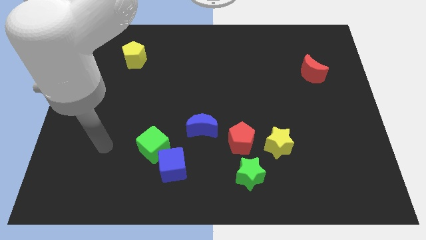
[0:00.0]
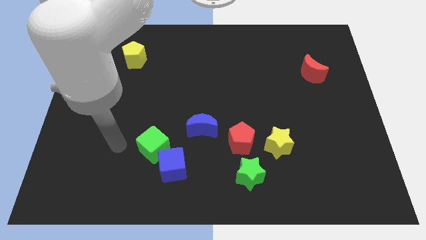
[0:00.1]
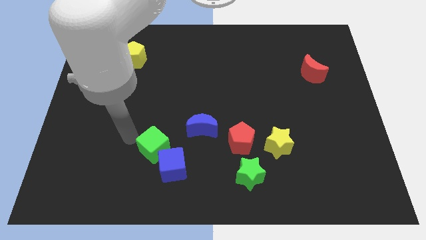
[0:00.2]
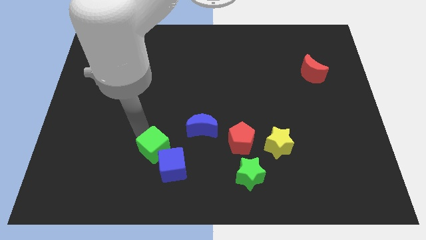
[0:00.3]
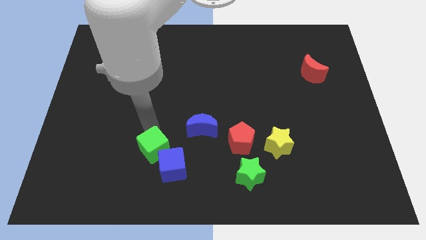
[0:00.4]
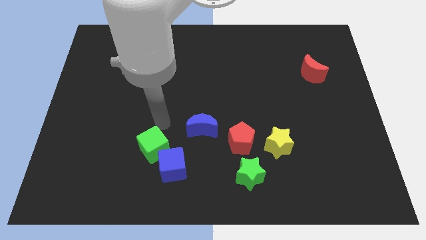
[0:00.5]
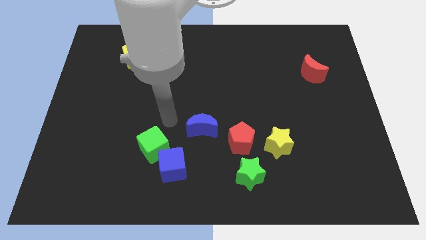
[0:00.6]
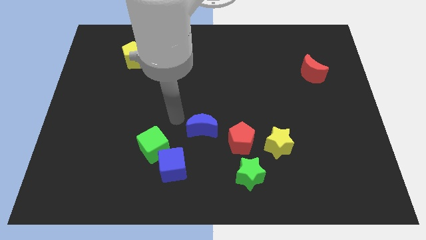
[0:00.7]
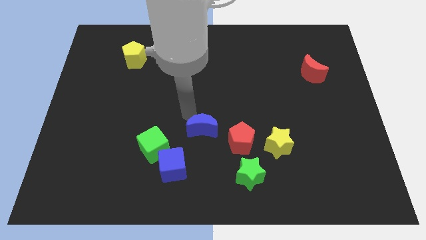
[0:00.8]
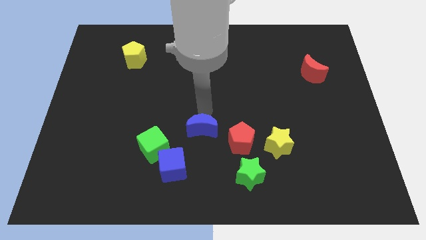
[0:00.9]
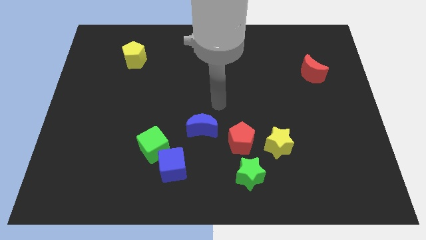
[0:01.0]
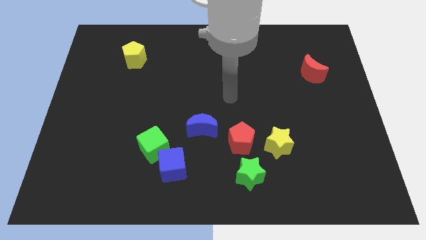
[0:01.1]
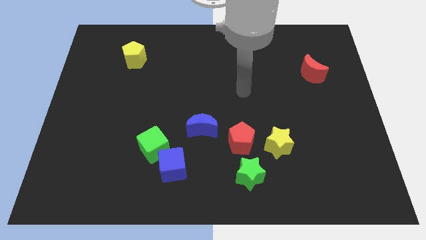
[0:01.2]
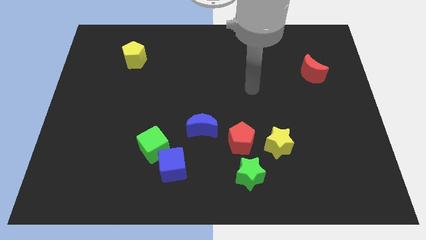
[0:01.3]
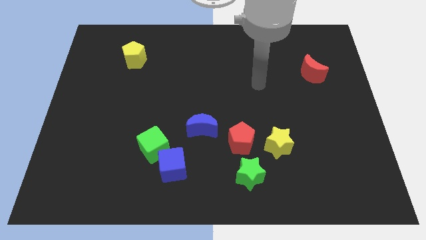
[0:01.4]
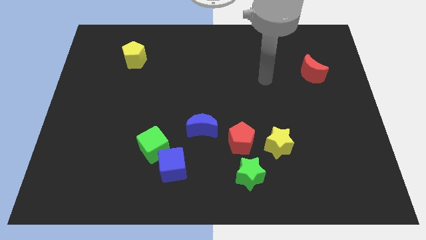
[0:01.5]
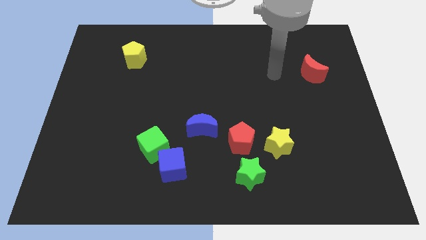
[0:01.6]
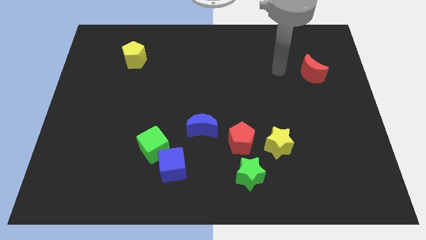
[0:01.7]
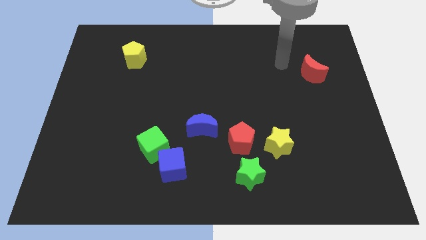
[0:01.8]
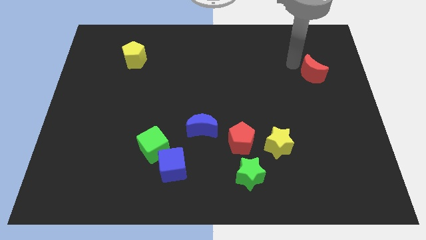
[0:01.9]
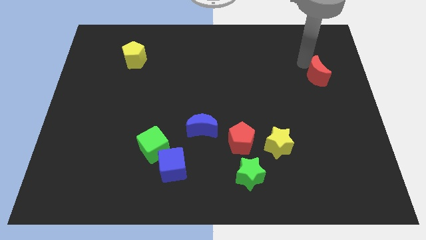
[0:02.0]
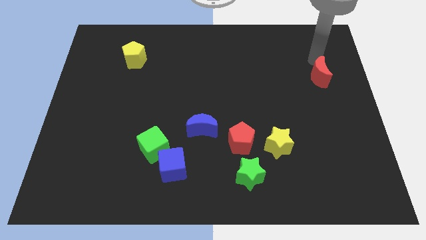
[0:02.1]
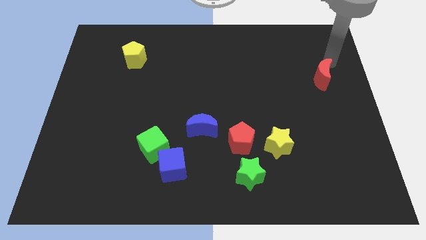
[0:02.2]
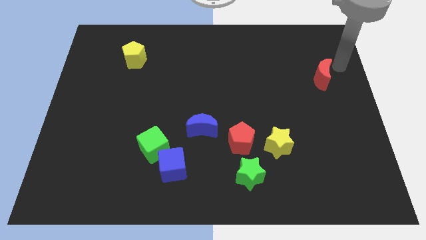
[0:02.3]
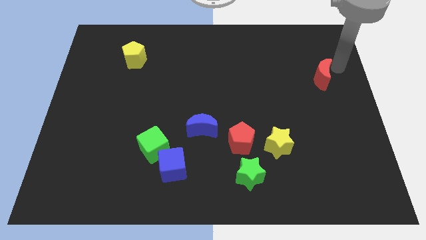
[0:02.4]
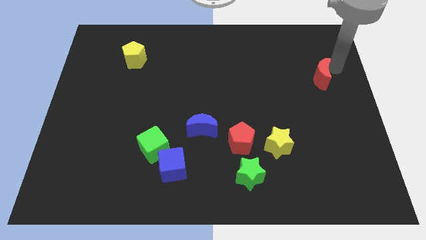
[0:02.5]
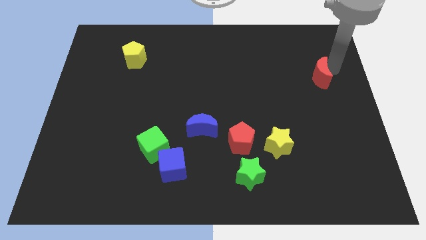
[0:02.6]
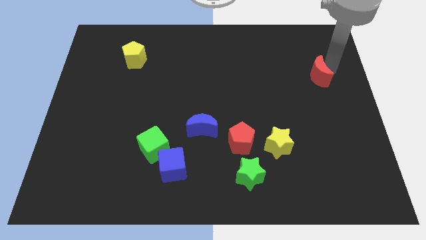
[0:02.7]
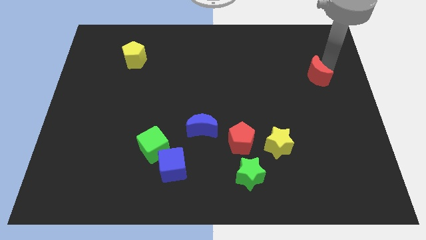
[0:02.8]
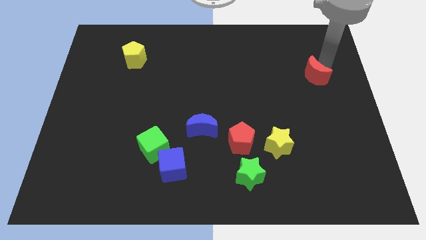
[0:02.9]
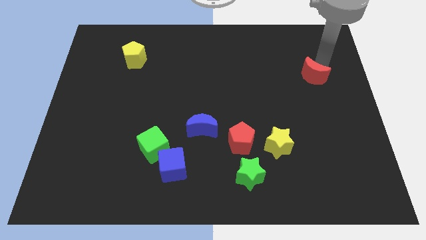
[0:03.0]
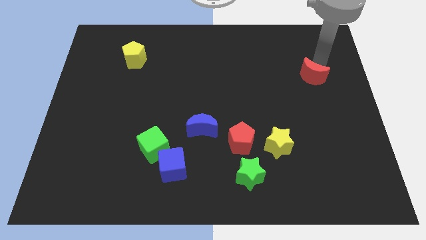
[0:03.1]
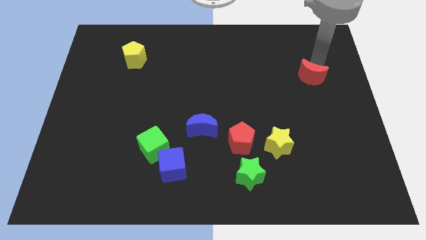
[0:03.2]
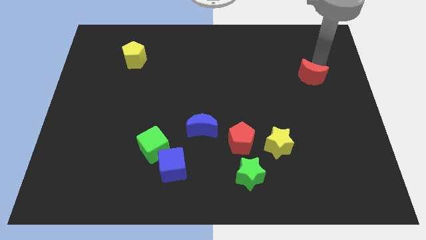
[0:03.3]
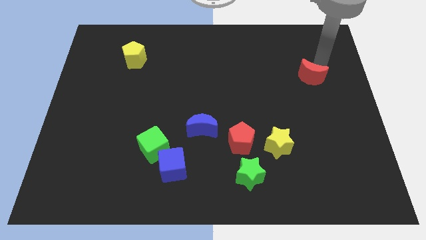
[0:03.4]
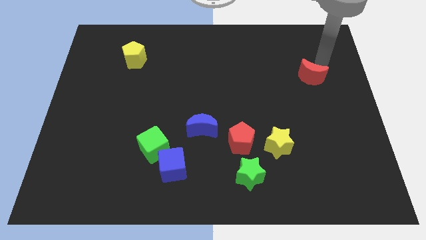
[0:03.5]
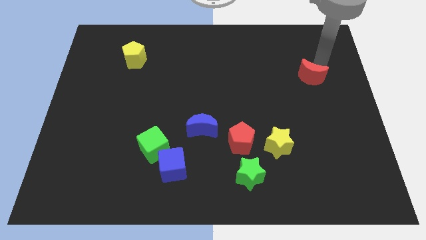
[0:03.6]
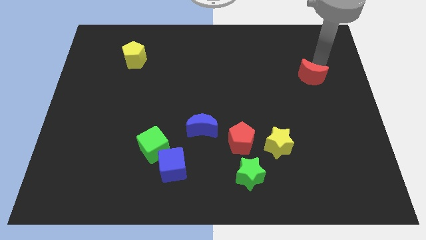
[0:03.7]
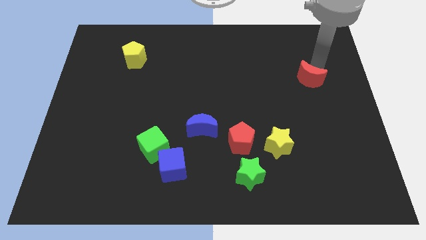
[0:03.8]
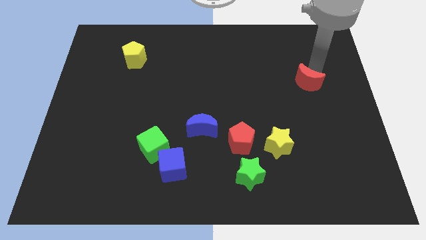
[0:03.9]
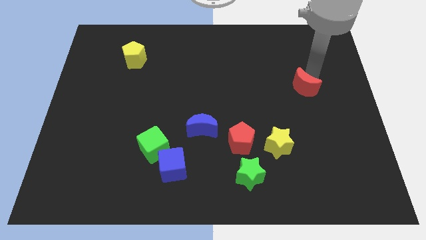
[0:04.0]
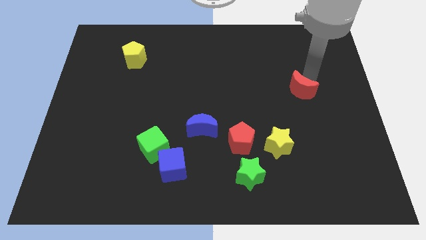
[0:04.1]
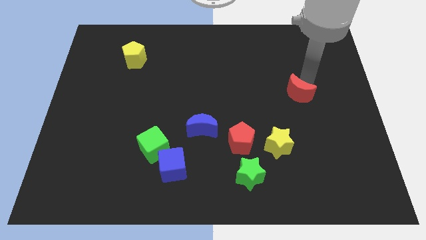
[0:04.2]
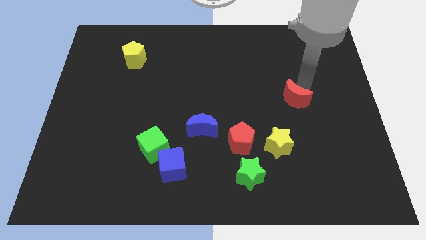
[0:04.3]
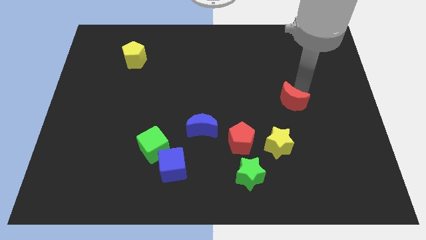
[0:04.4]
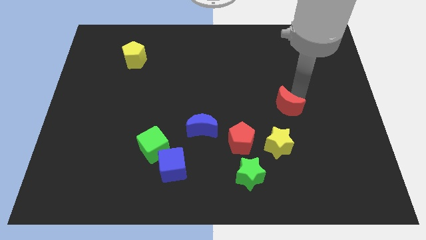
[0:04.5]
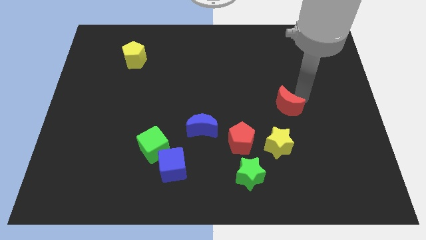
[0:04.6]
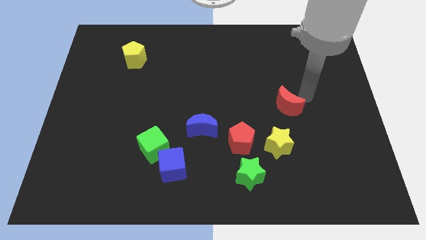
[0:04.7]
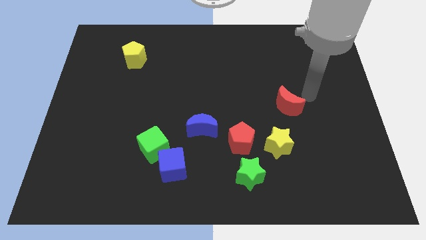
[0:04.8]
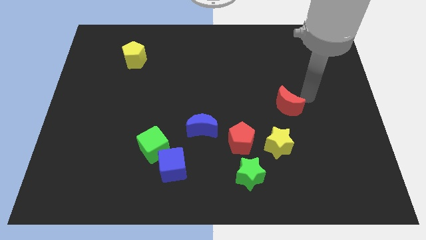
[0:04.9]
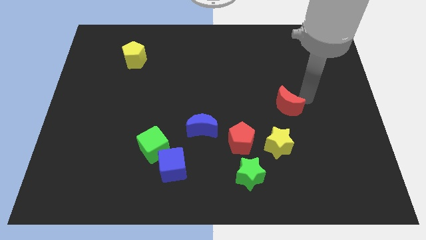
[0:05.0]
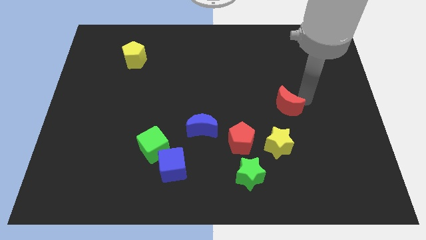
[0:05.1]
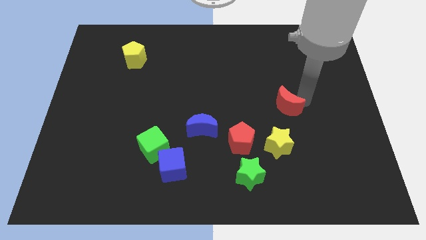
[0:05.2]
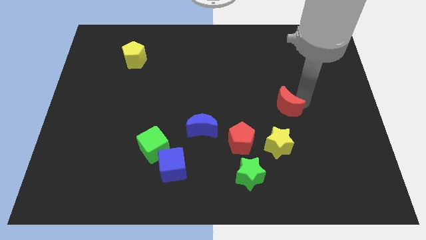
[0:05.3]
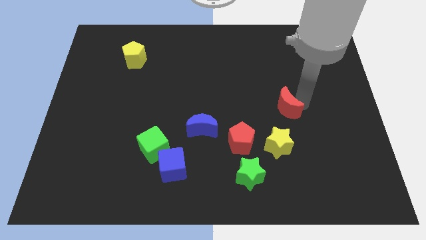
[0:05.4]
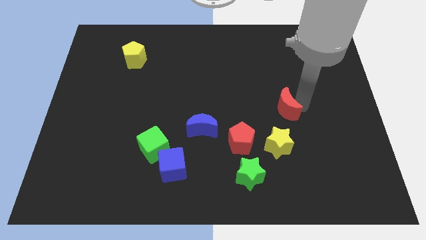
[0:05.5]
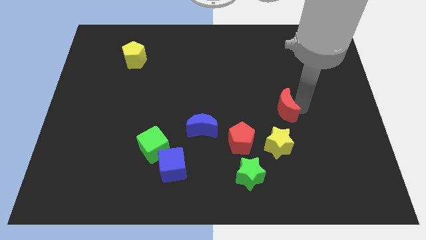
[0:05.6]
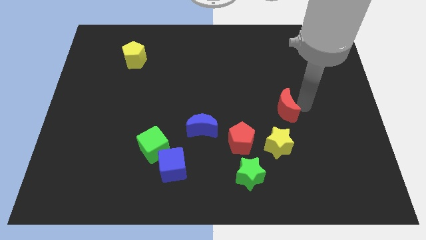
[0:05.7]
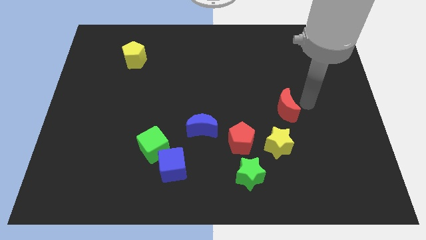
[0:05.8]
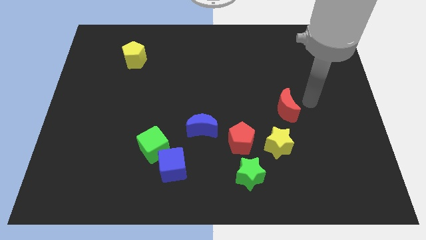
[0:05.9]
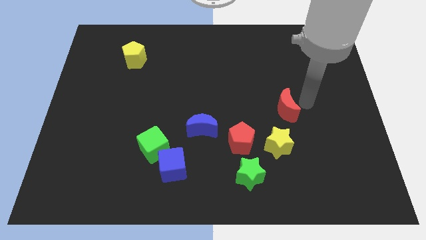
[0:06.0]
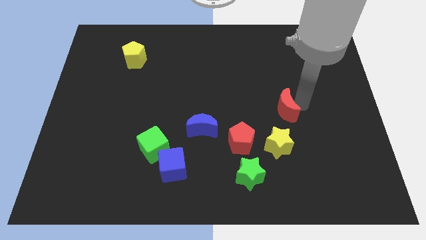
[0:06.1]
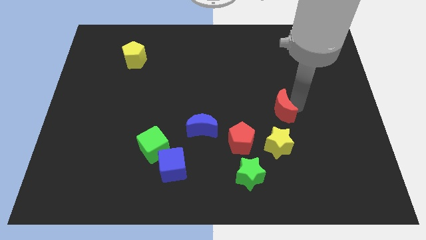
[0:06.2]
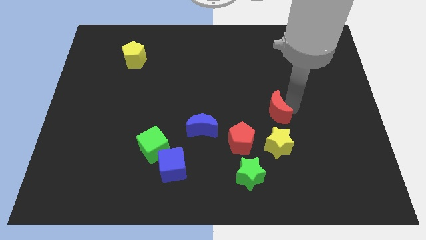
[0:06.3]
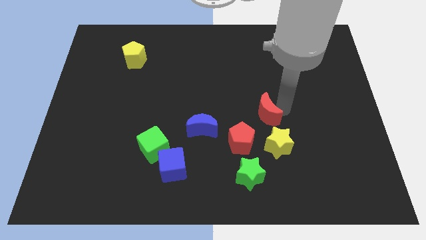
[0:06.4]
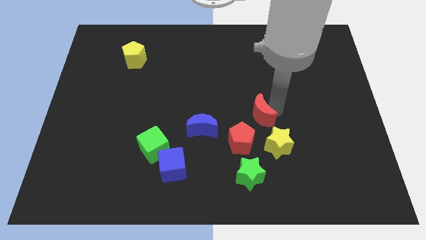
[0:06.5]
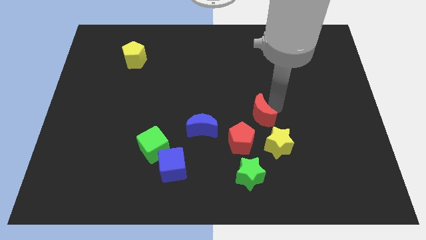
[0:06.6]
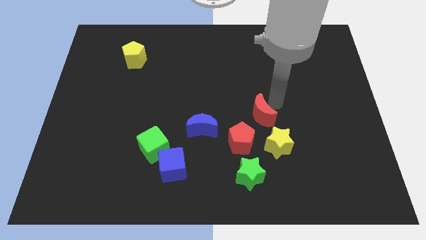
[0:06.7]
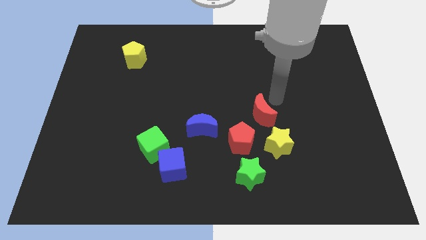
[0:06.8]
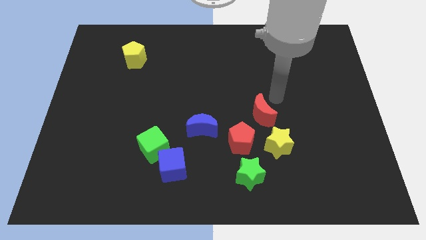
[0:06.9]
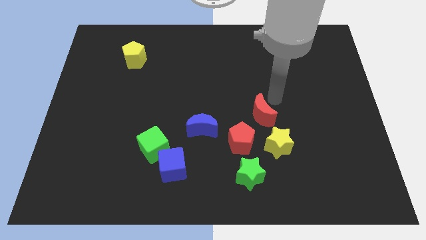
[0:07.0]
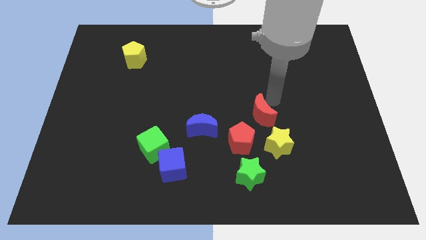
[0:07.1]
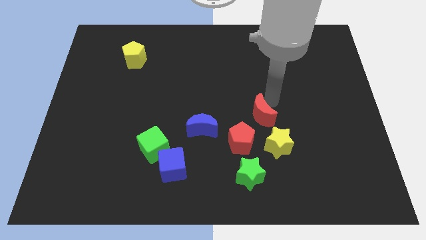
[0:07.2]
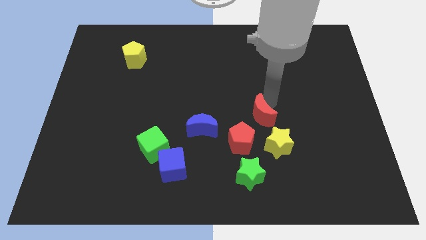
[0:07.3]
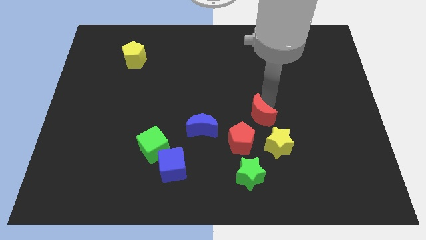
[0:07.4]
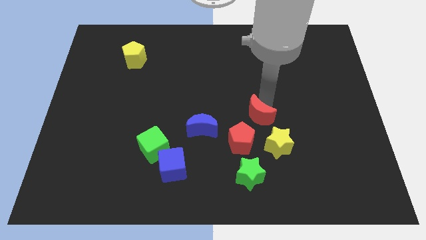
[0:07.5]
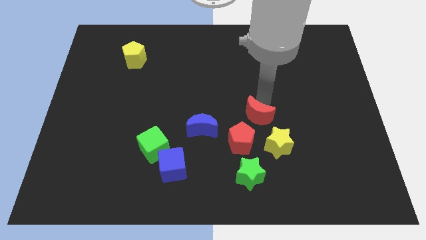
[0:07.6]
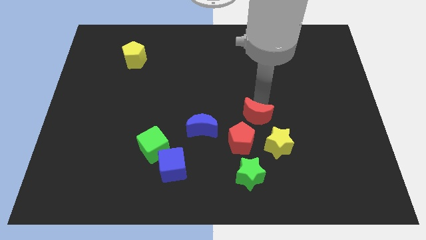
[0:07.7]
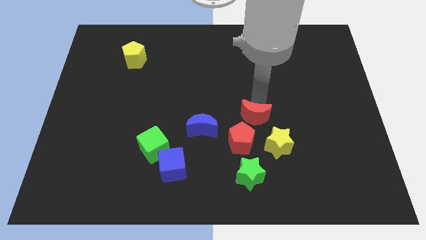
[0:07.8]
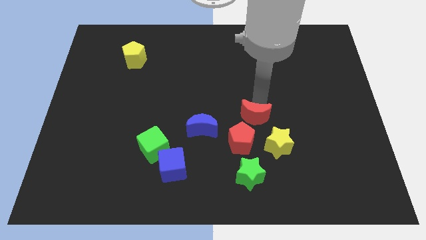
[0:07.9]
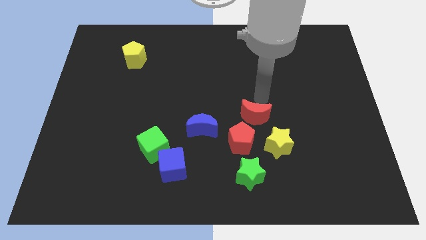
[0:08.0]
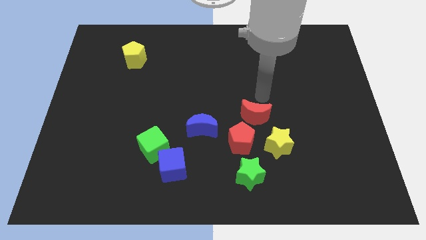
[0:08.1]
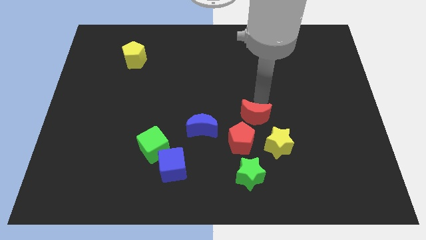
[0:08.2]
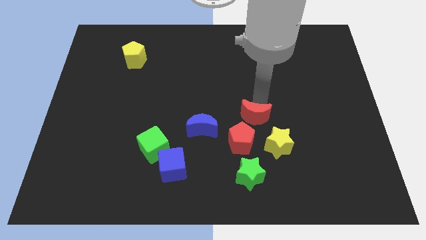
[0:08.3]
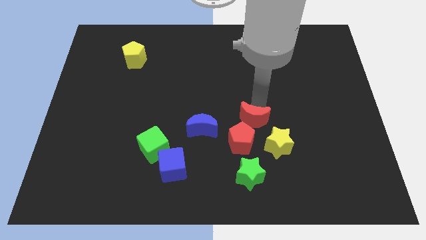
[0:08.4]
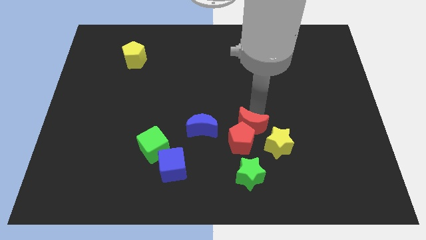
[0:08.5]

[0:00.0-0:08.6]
push the red moon to the red pentagon
